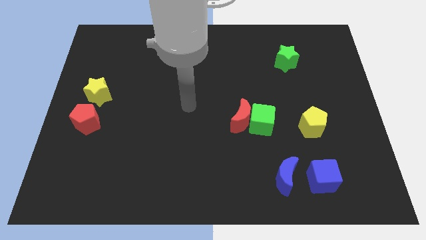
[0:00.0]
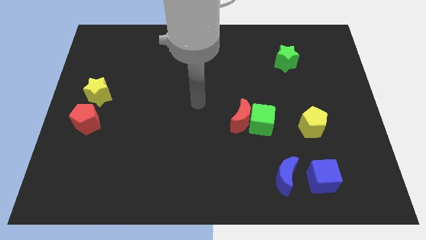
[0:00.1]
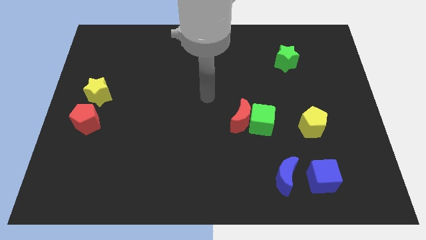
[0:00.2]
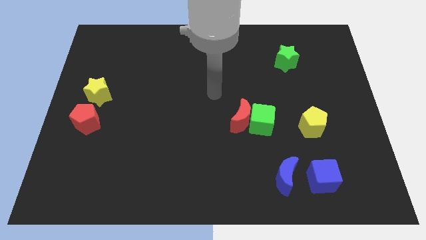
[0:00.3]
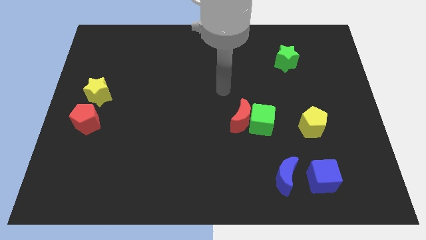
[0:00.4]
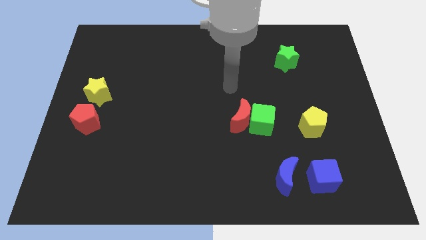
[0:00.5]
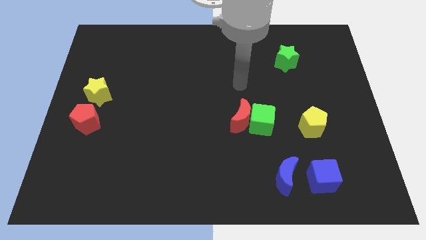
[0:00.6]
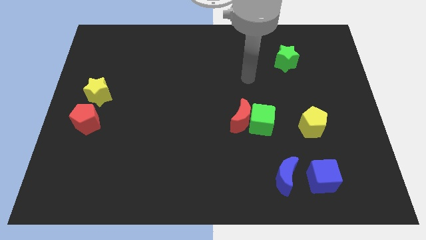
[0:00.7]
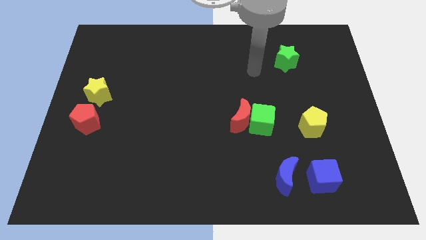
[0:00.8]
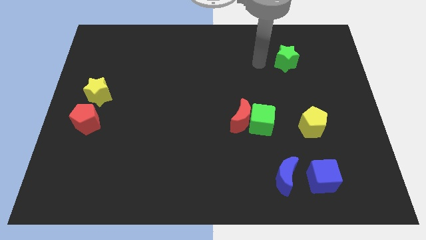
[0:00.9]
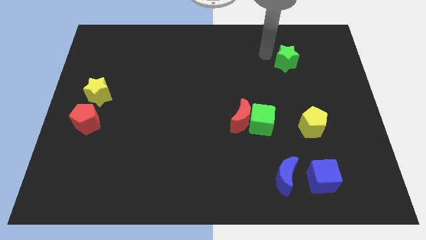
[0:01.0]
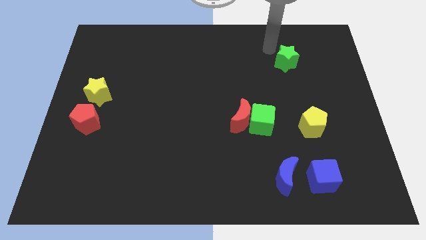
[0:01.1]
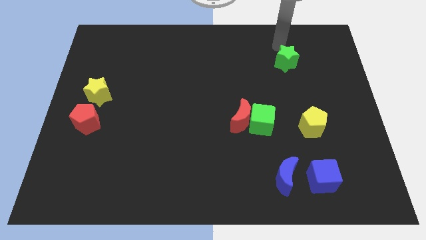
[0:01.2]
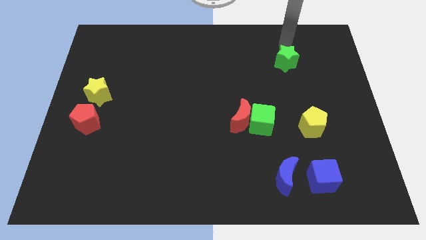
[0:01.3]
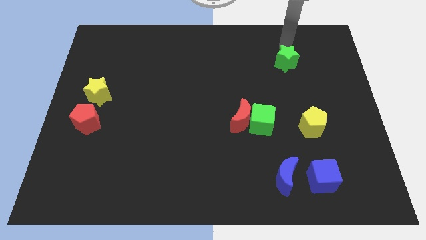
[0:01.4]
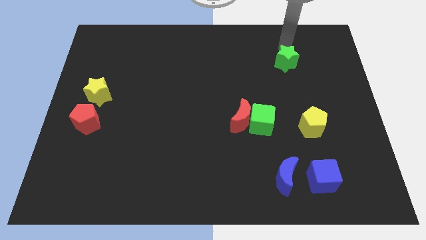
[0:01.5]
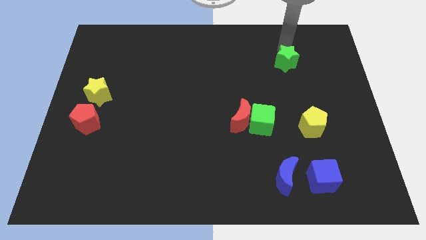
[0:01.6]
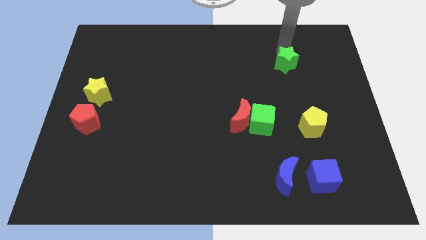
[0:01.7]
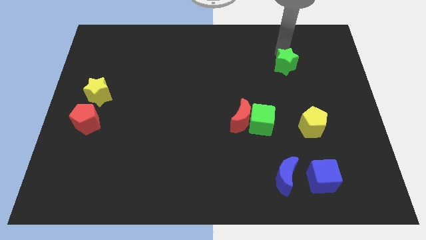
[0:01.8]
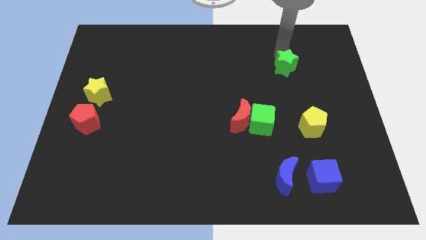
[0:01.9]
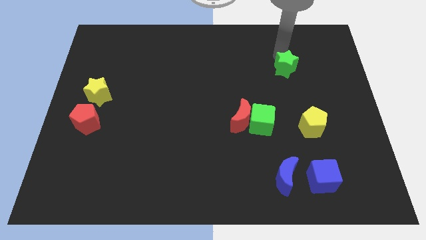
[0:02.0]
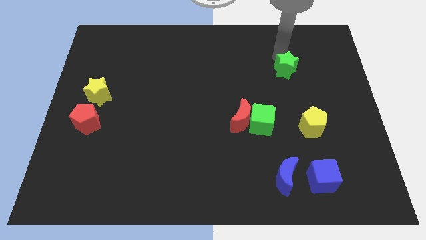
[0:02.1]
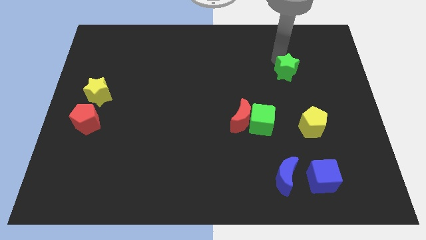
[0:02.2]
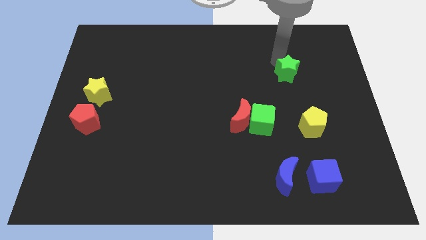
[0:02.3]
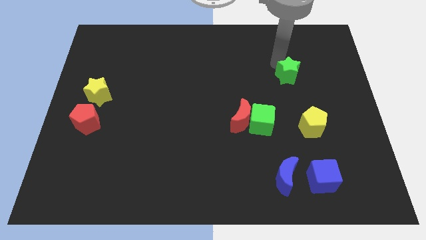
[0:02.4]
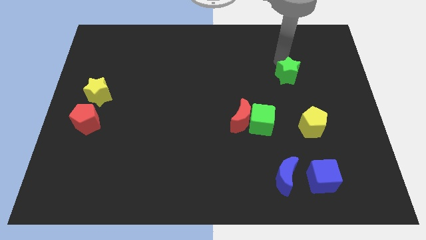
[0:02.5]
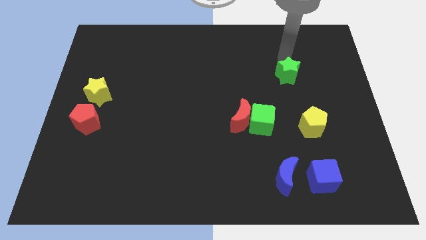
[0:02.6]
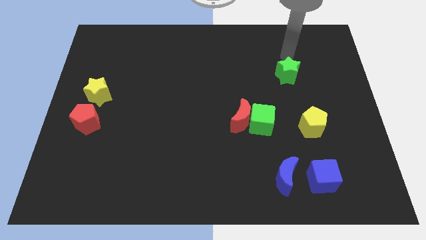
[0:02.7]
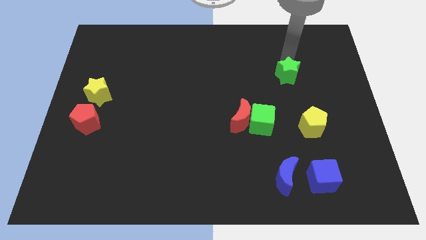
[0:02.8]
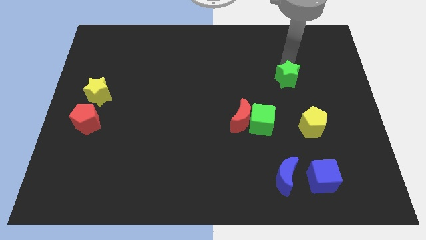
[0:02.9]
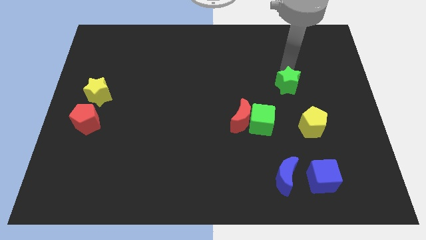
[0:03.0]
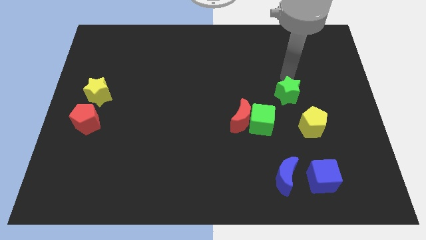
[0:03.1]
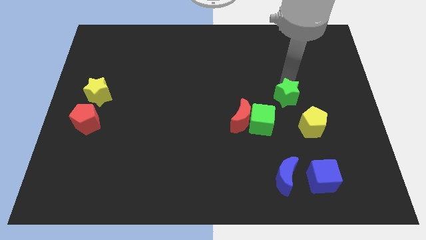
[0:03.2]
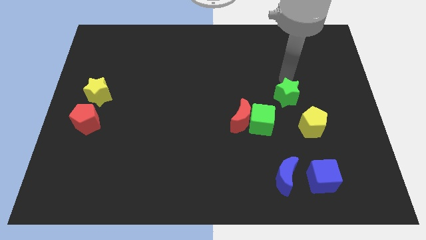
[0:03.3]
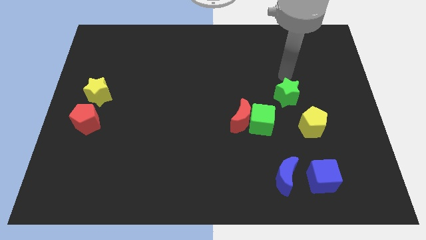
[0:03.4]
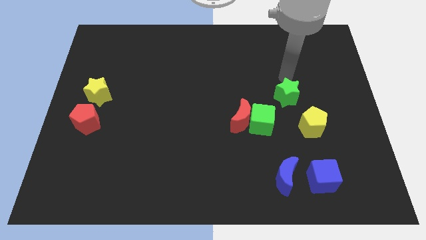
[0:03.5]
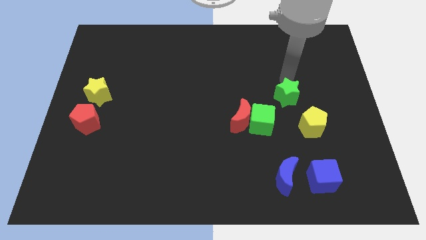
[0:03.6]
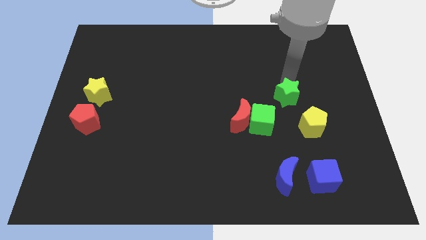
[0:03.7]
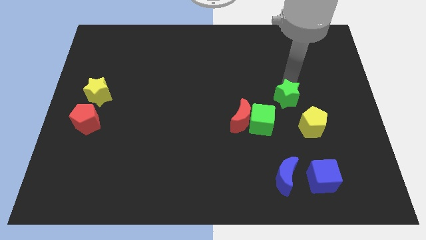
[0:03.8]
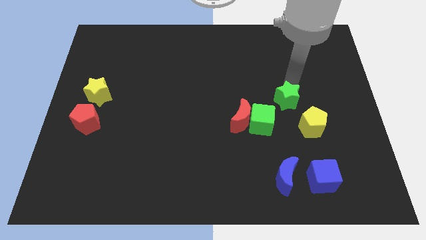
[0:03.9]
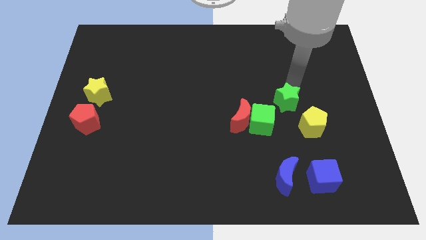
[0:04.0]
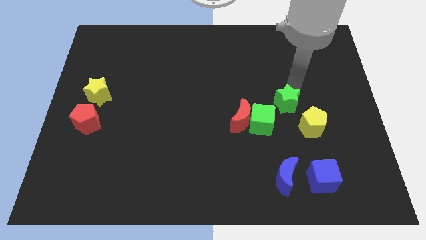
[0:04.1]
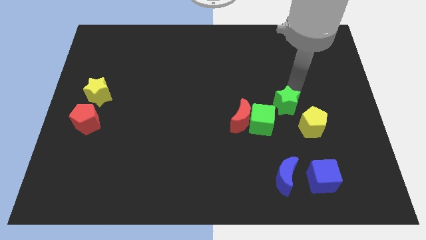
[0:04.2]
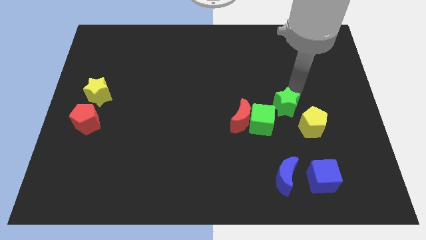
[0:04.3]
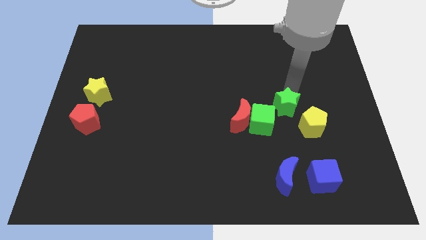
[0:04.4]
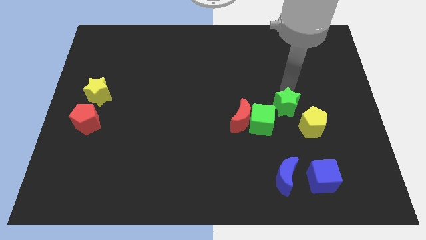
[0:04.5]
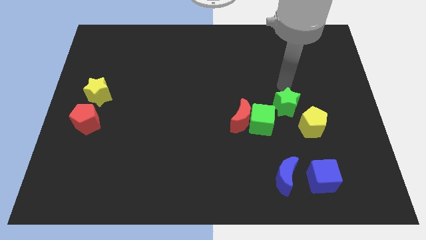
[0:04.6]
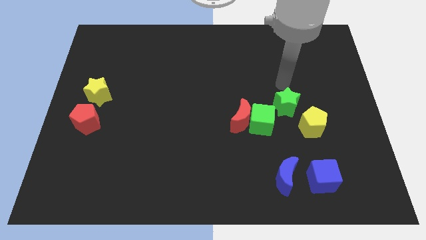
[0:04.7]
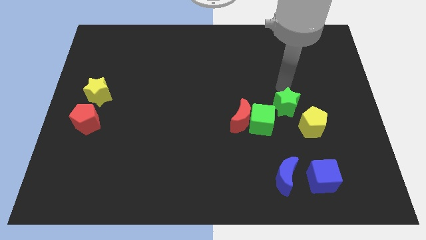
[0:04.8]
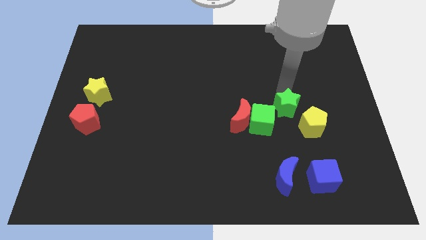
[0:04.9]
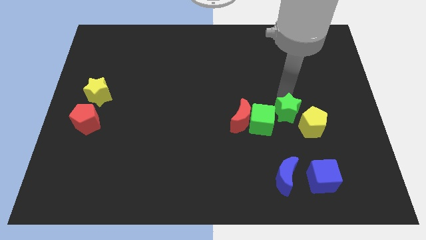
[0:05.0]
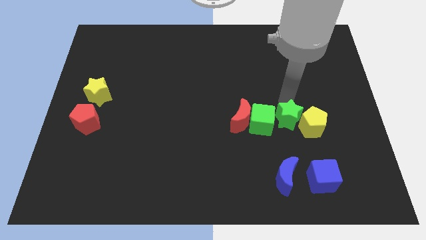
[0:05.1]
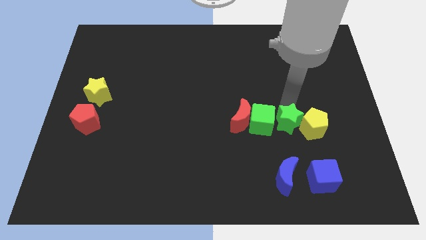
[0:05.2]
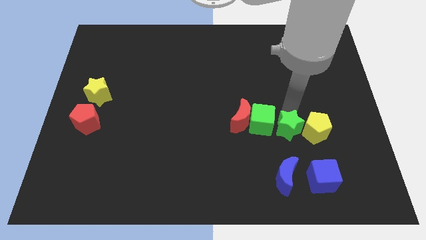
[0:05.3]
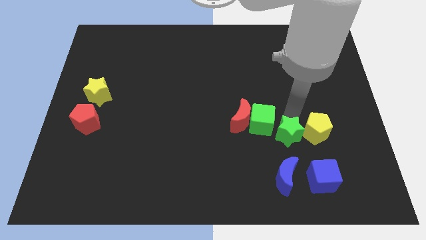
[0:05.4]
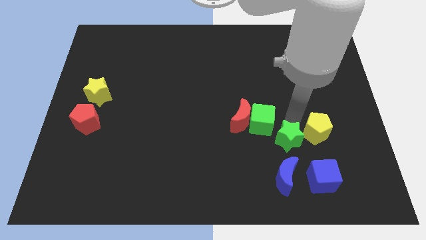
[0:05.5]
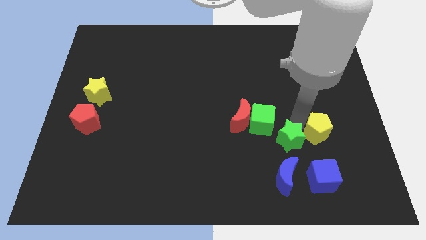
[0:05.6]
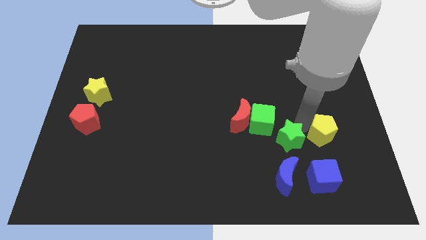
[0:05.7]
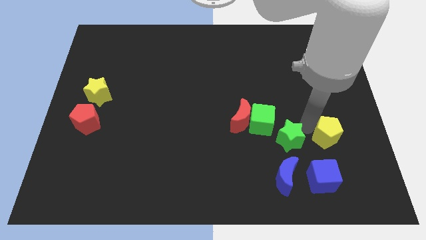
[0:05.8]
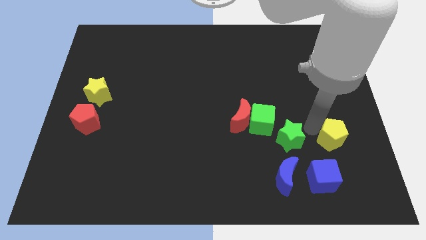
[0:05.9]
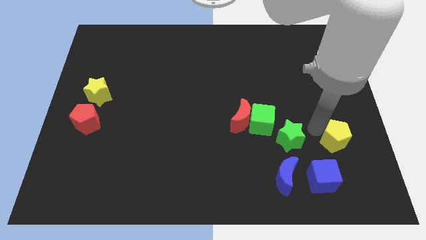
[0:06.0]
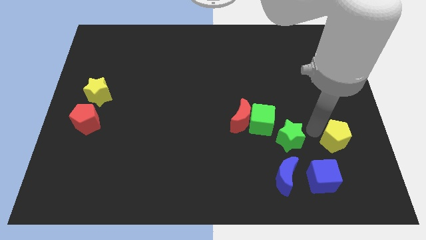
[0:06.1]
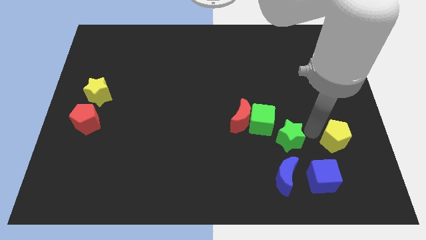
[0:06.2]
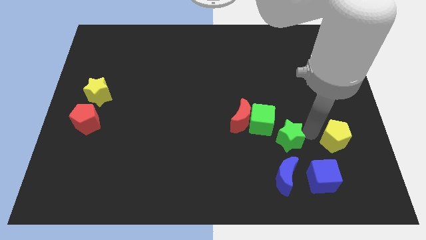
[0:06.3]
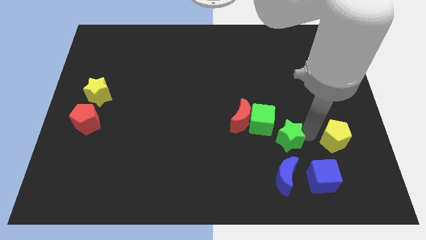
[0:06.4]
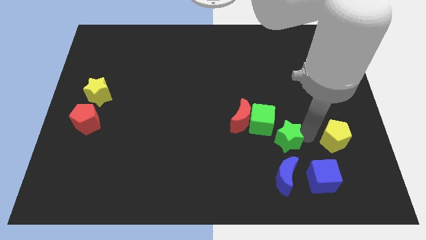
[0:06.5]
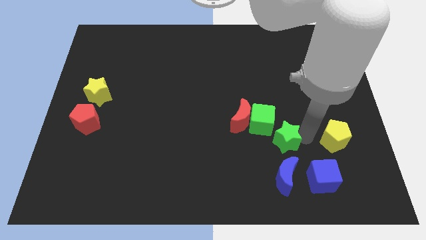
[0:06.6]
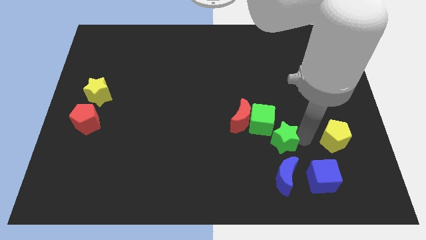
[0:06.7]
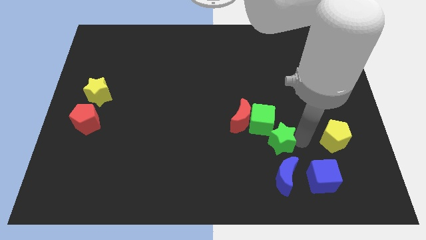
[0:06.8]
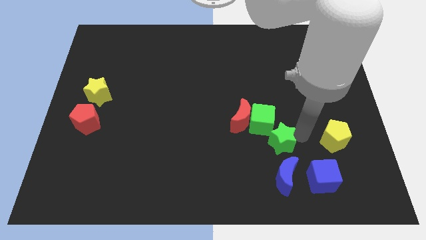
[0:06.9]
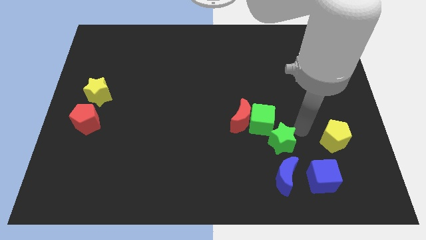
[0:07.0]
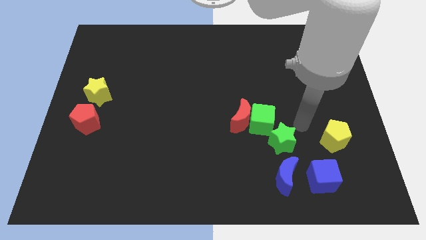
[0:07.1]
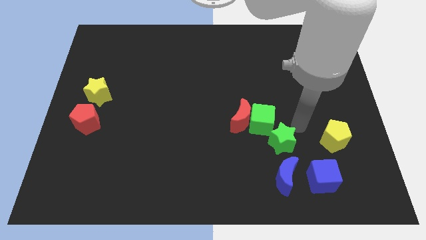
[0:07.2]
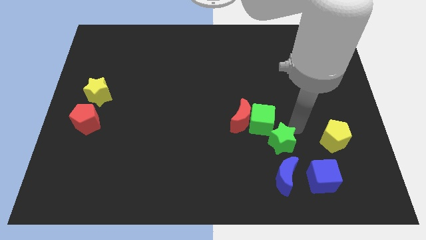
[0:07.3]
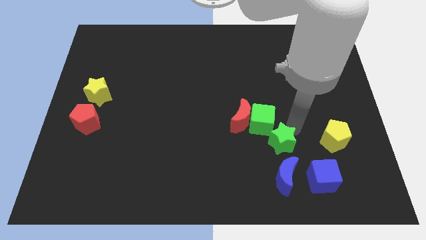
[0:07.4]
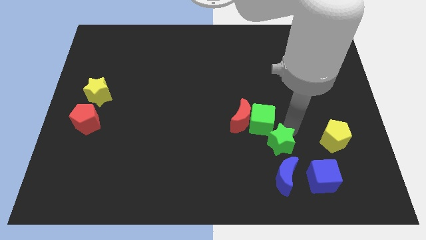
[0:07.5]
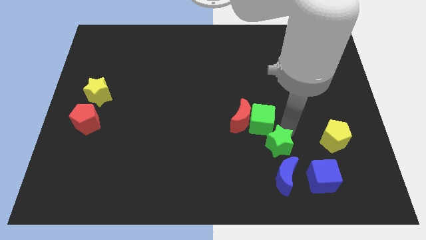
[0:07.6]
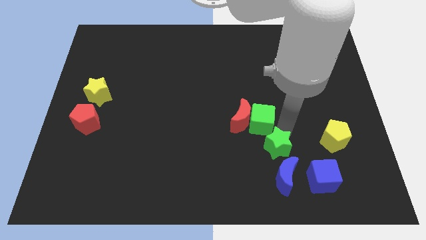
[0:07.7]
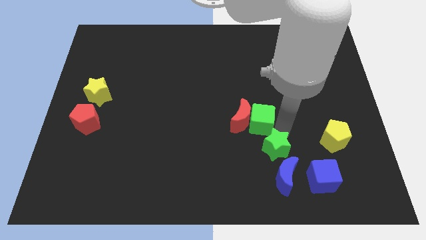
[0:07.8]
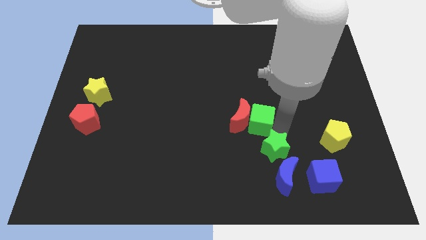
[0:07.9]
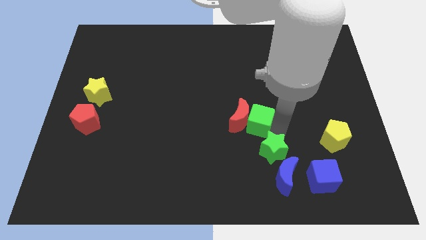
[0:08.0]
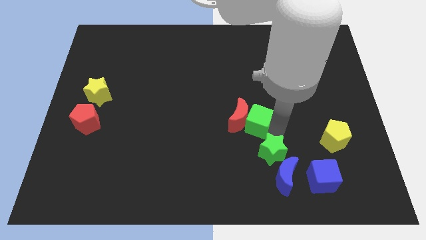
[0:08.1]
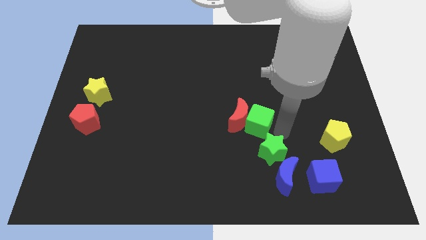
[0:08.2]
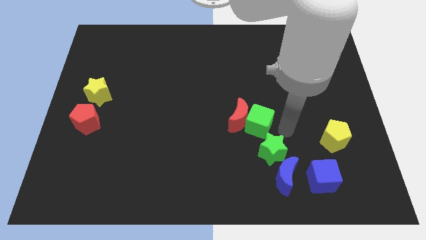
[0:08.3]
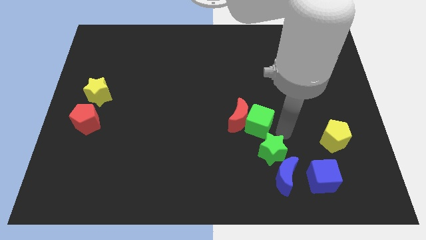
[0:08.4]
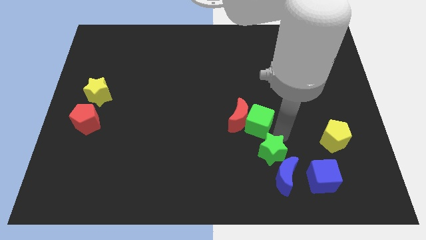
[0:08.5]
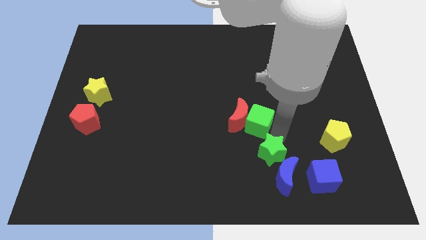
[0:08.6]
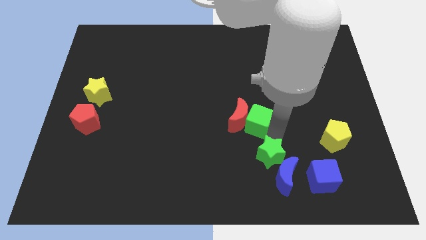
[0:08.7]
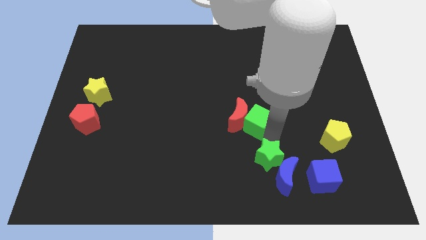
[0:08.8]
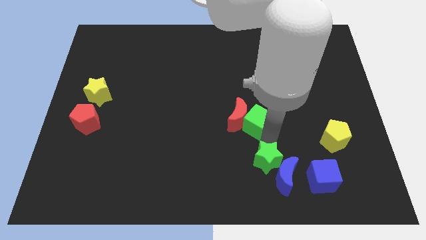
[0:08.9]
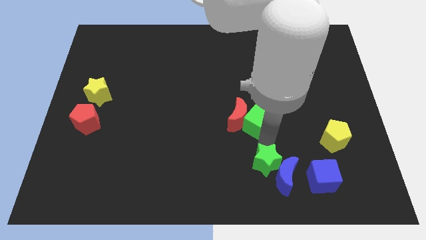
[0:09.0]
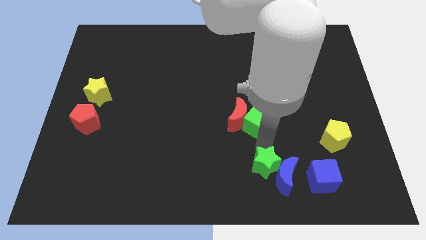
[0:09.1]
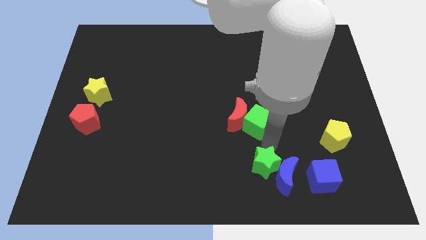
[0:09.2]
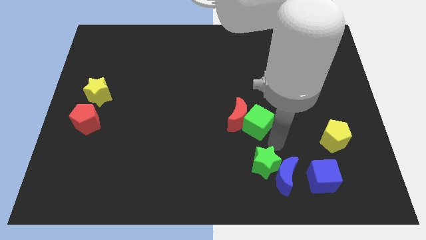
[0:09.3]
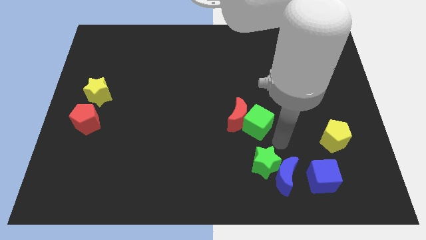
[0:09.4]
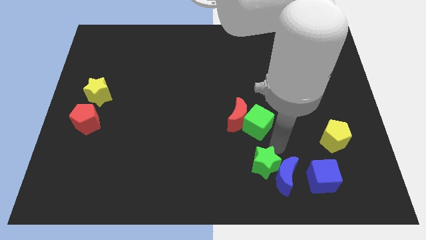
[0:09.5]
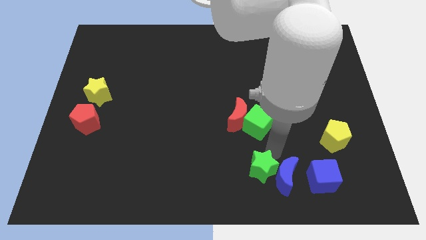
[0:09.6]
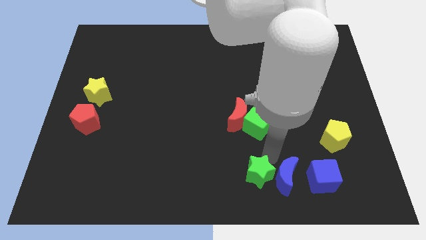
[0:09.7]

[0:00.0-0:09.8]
slide the green star to the bottom
